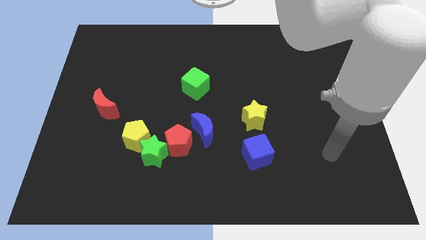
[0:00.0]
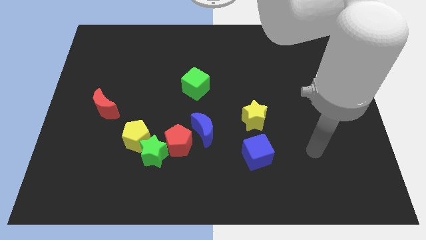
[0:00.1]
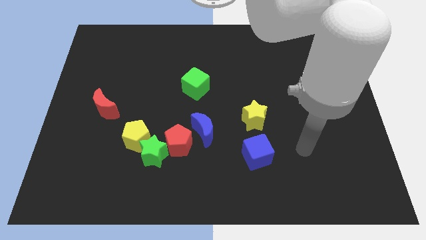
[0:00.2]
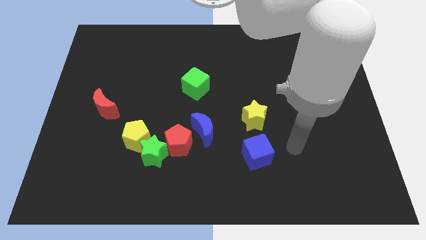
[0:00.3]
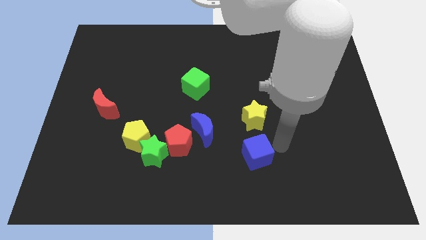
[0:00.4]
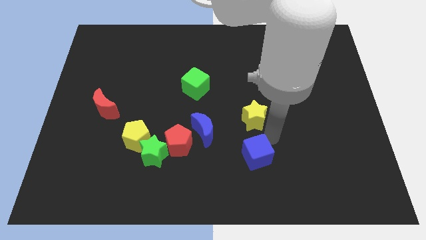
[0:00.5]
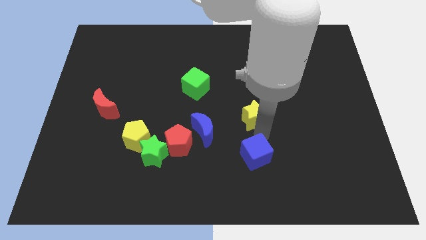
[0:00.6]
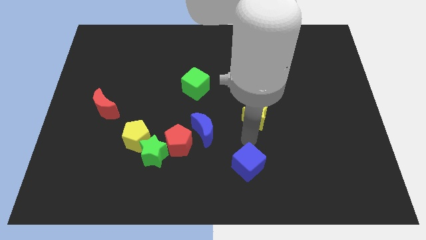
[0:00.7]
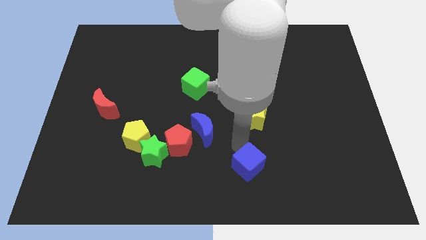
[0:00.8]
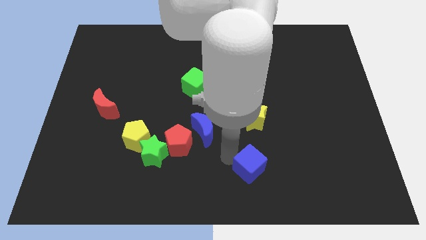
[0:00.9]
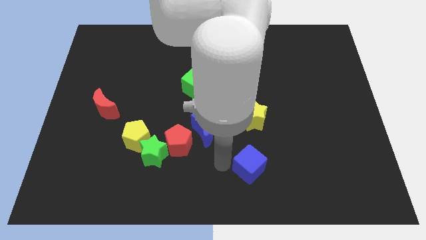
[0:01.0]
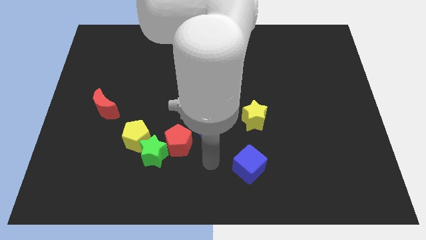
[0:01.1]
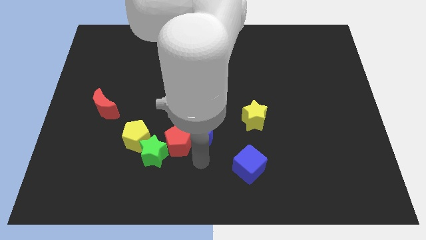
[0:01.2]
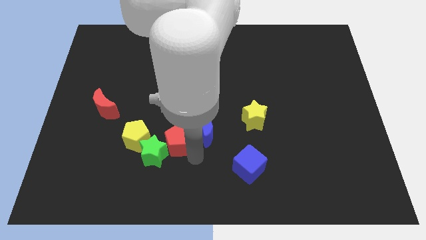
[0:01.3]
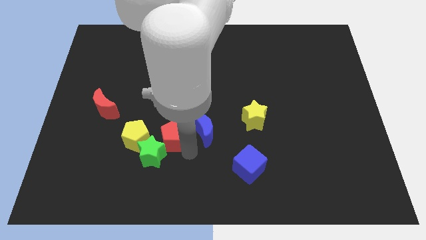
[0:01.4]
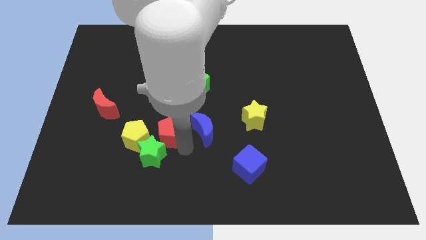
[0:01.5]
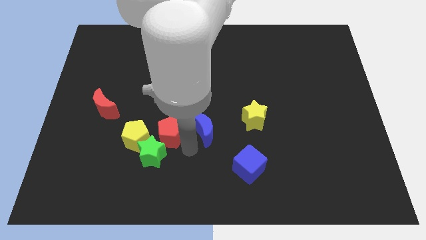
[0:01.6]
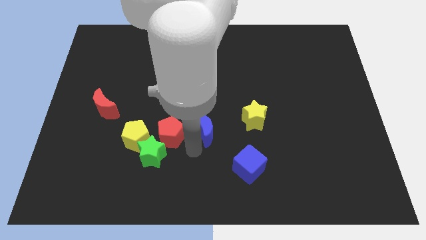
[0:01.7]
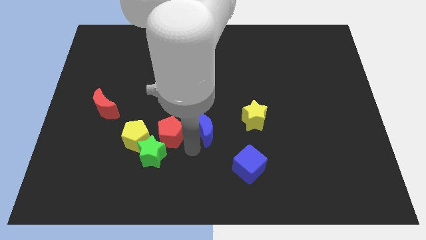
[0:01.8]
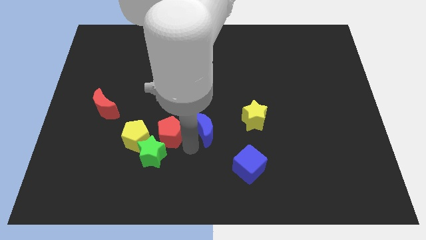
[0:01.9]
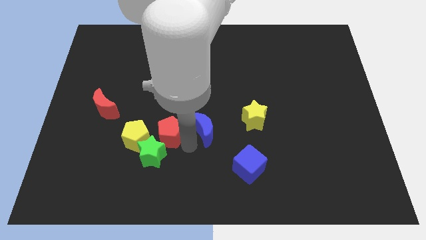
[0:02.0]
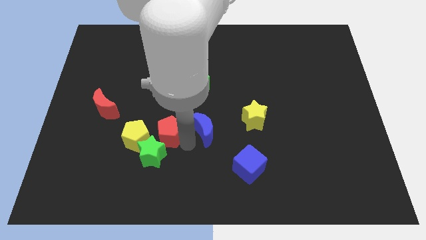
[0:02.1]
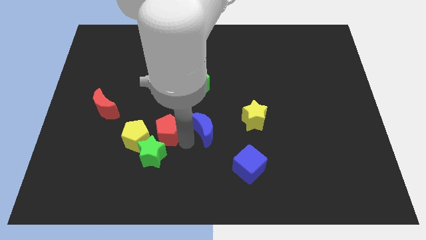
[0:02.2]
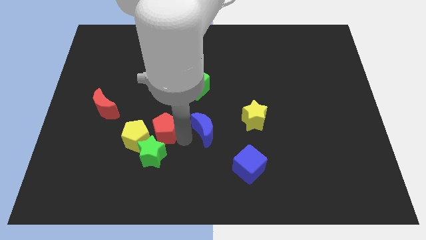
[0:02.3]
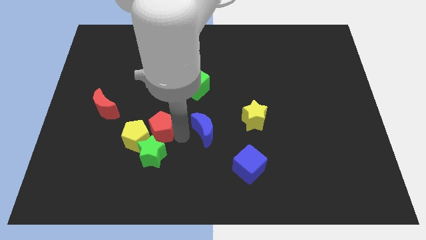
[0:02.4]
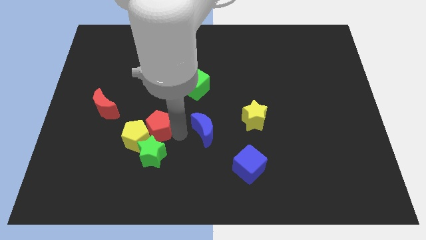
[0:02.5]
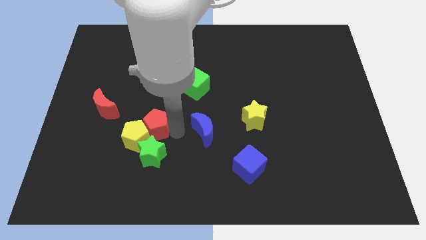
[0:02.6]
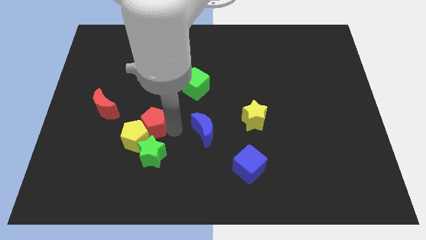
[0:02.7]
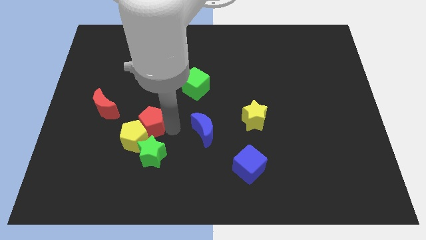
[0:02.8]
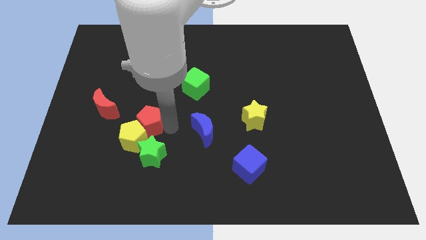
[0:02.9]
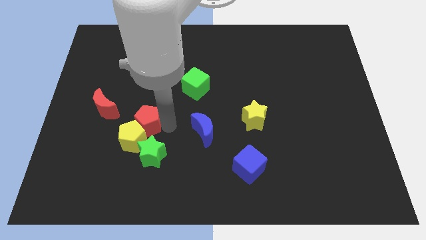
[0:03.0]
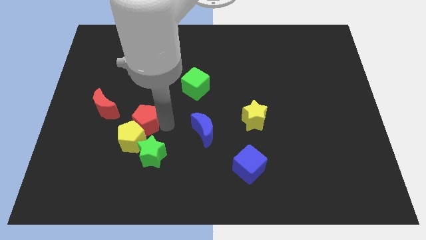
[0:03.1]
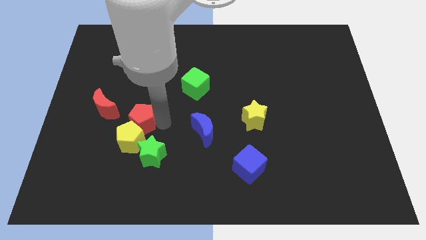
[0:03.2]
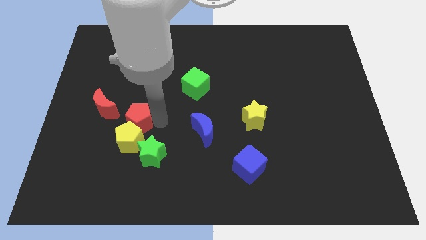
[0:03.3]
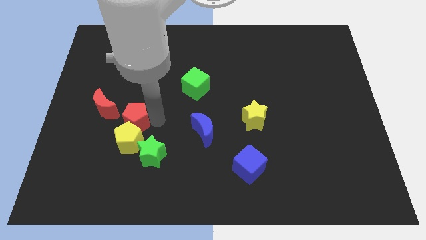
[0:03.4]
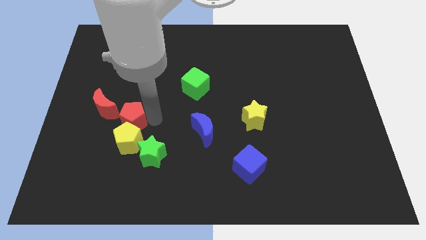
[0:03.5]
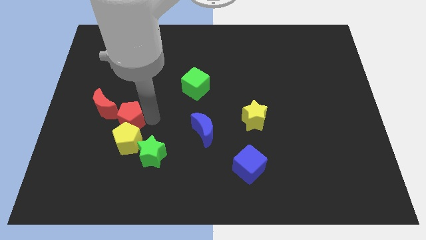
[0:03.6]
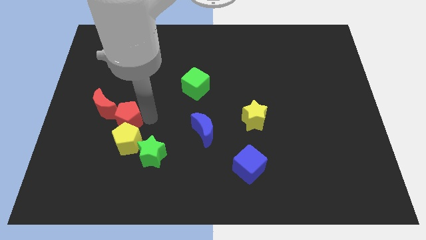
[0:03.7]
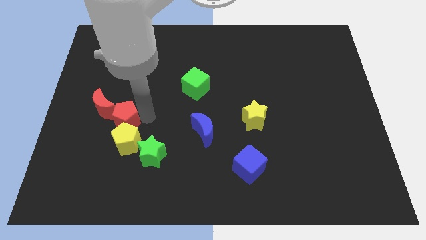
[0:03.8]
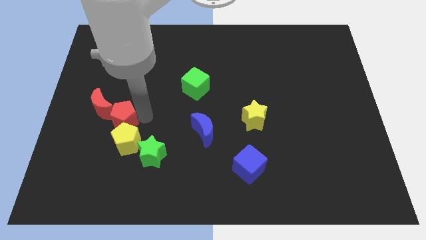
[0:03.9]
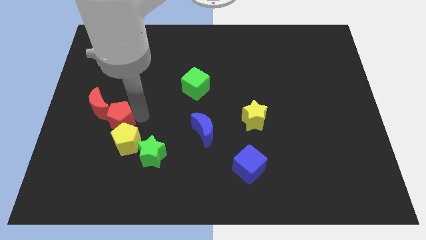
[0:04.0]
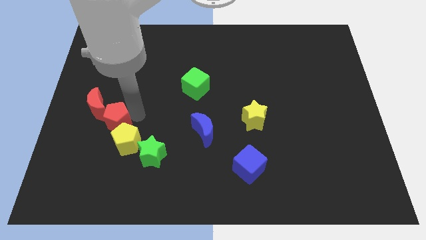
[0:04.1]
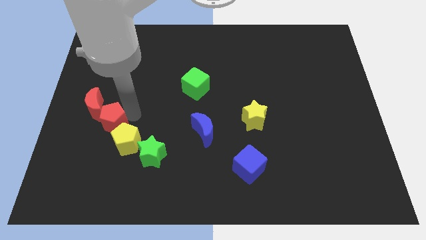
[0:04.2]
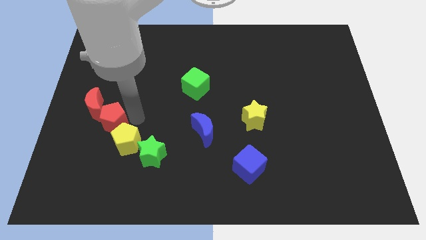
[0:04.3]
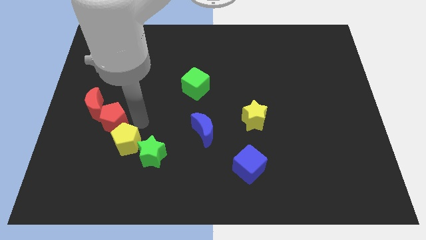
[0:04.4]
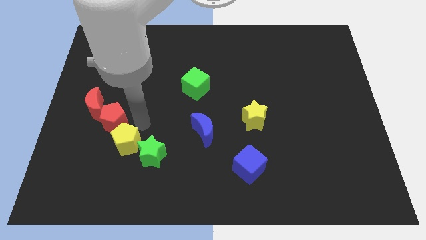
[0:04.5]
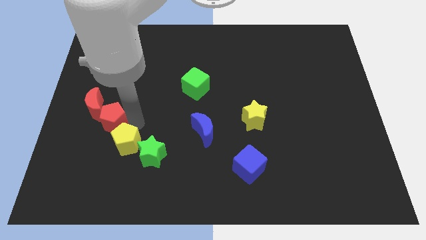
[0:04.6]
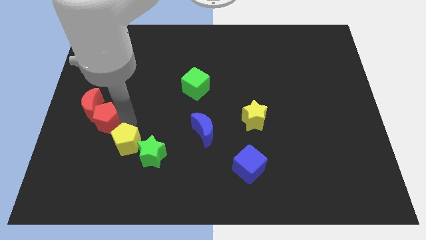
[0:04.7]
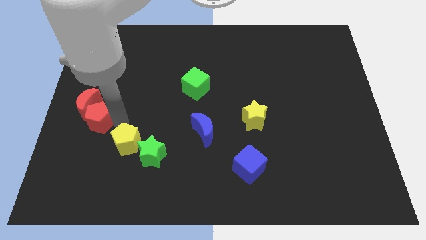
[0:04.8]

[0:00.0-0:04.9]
slide the red pentagon to the left side of the board

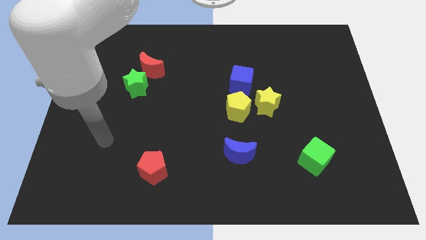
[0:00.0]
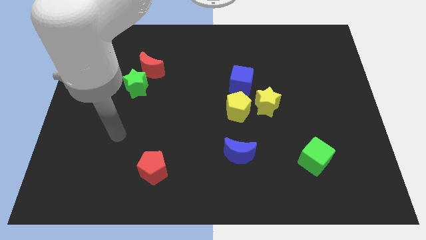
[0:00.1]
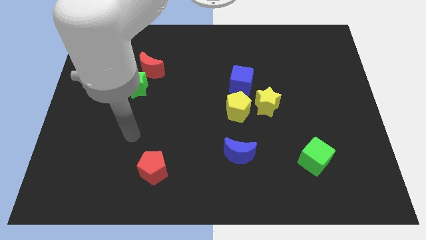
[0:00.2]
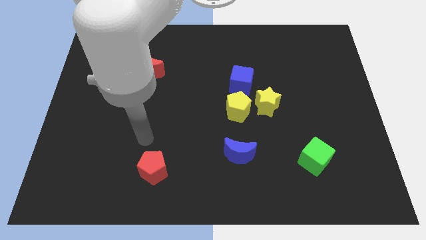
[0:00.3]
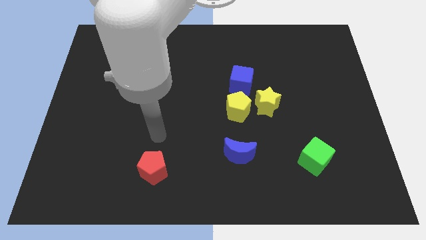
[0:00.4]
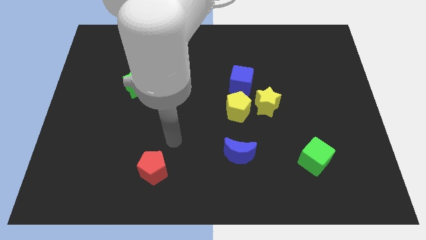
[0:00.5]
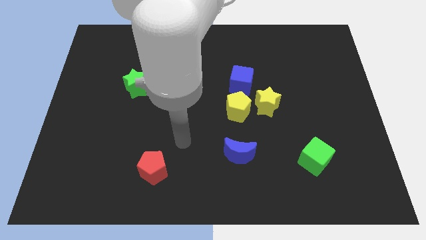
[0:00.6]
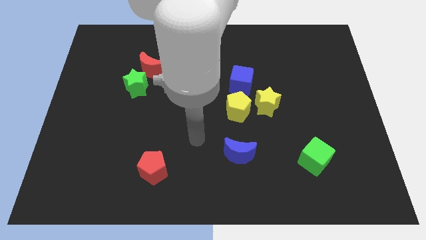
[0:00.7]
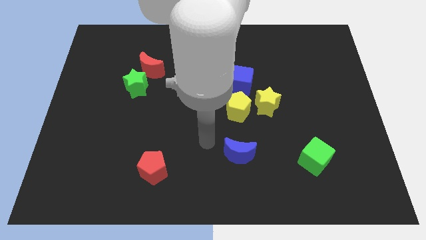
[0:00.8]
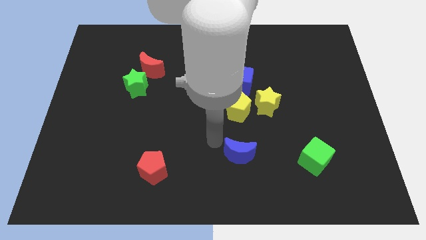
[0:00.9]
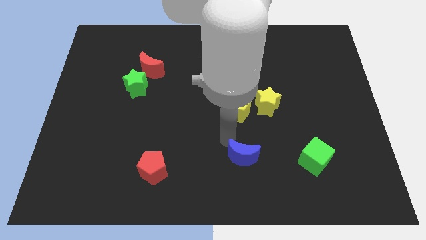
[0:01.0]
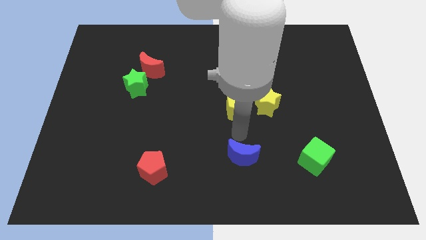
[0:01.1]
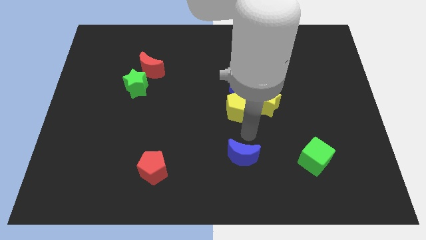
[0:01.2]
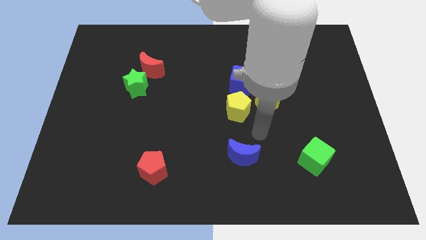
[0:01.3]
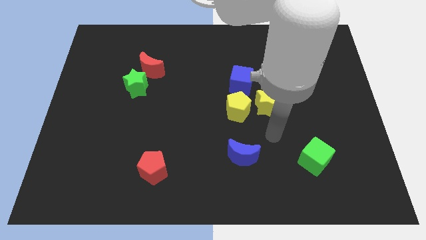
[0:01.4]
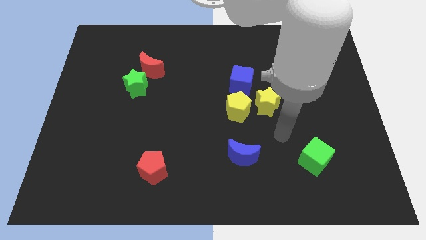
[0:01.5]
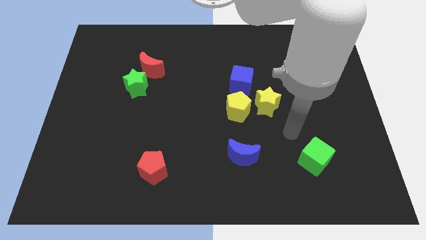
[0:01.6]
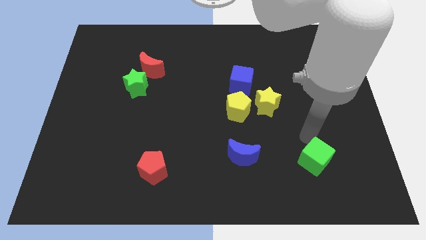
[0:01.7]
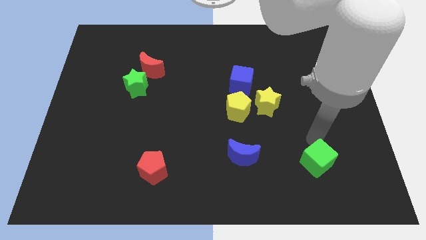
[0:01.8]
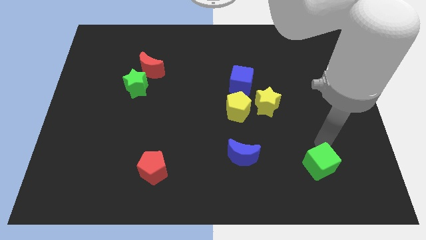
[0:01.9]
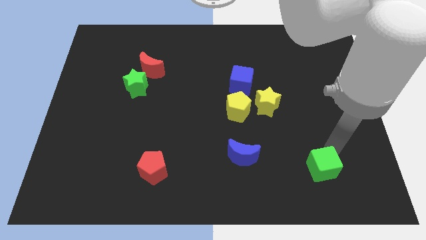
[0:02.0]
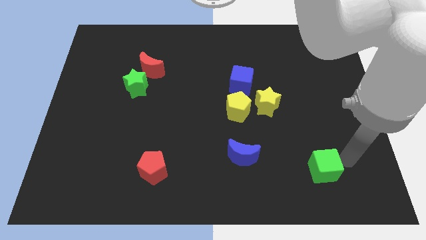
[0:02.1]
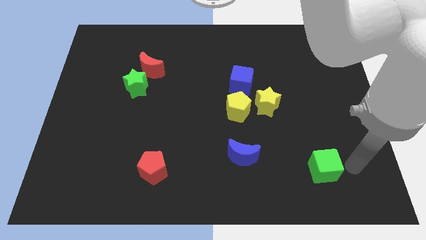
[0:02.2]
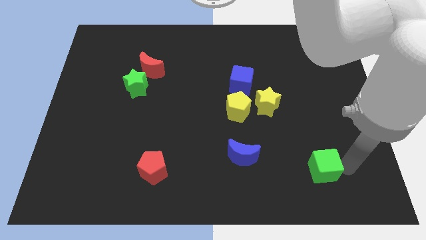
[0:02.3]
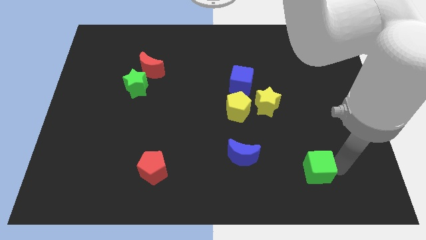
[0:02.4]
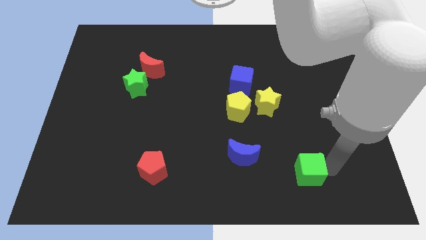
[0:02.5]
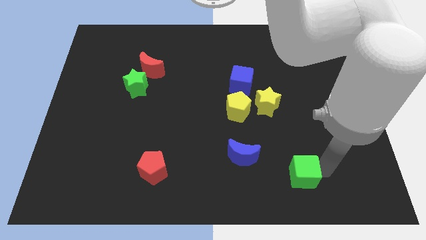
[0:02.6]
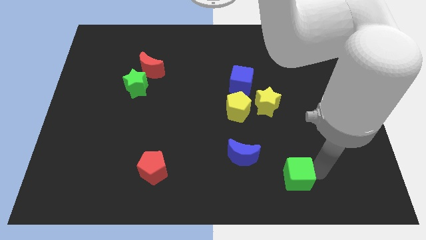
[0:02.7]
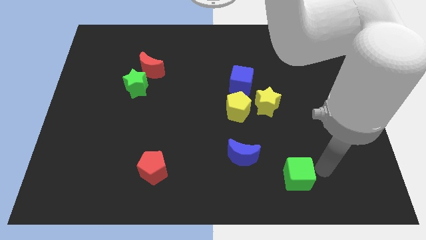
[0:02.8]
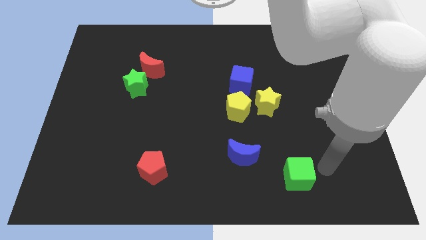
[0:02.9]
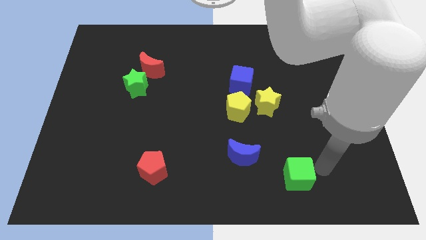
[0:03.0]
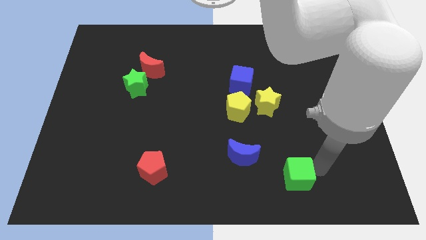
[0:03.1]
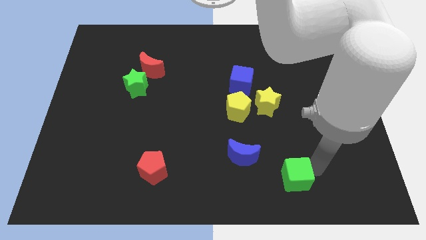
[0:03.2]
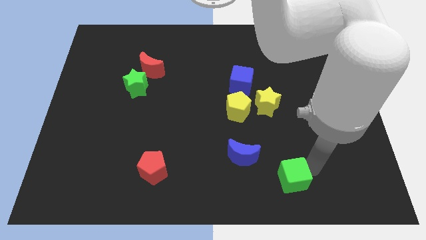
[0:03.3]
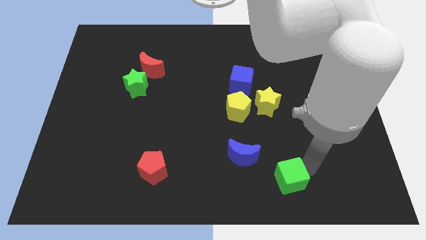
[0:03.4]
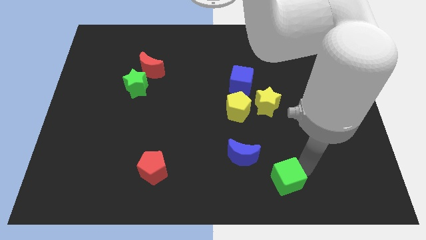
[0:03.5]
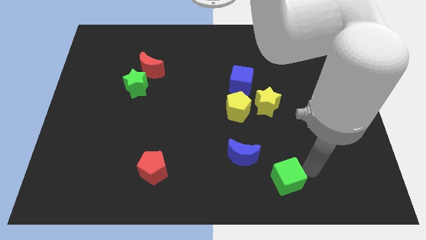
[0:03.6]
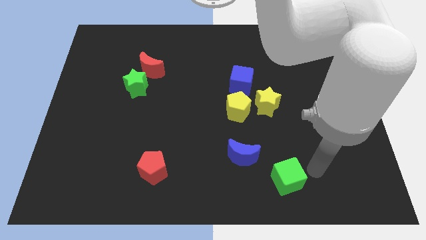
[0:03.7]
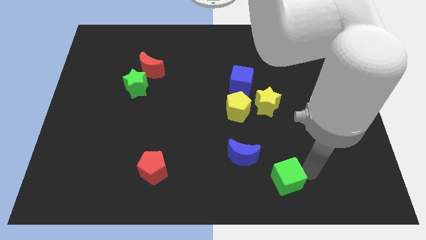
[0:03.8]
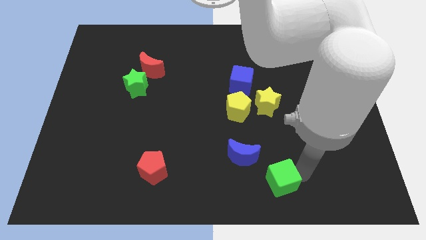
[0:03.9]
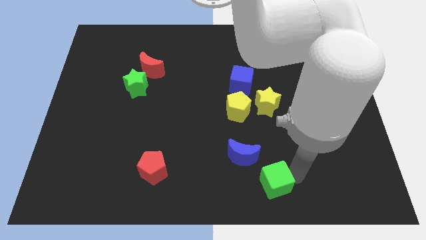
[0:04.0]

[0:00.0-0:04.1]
slide the green cube to the bottom
